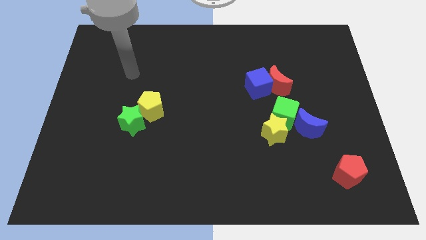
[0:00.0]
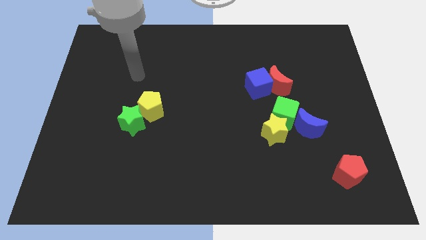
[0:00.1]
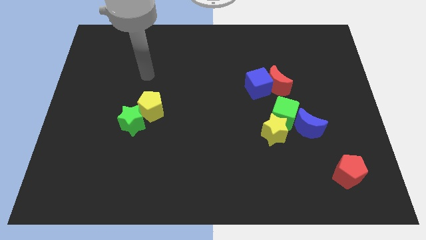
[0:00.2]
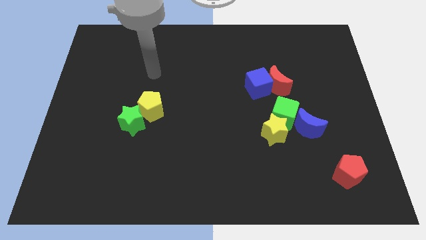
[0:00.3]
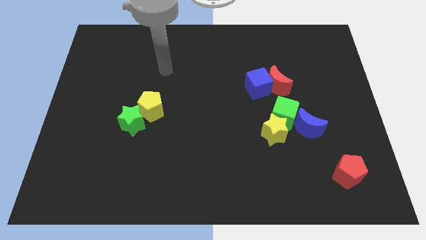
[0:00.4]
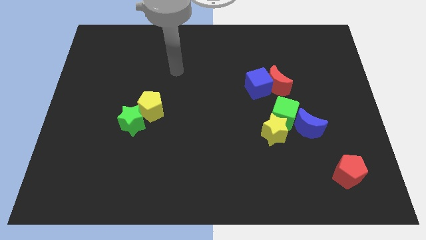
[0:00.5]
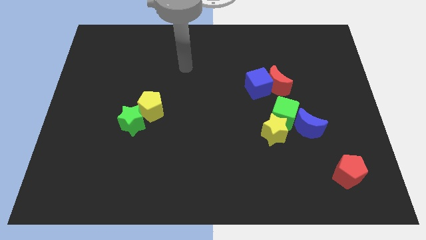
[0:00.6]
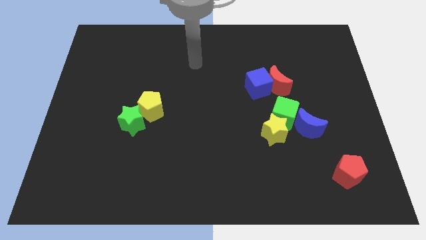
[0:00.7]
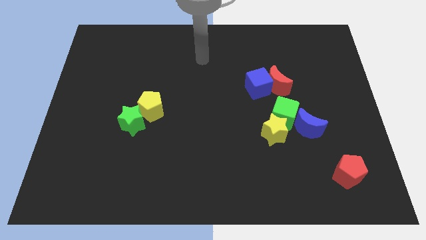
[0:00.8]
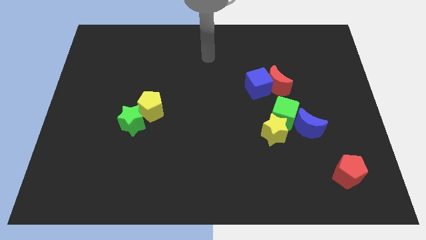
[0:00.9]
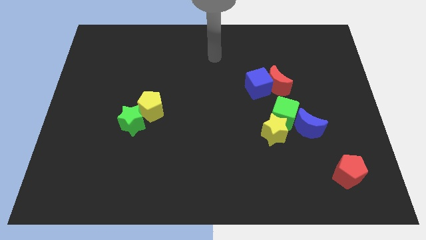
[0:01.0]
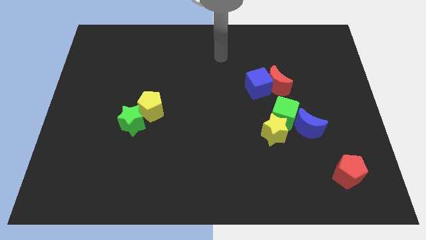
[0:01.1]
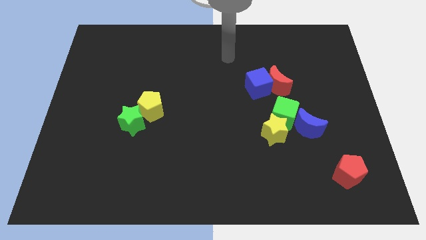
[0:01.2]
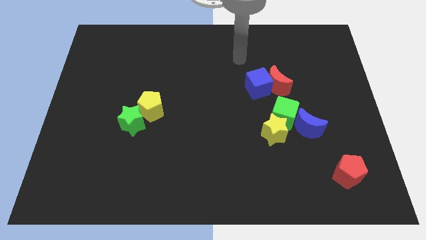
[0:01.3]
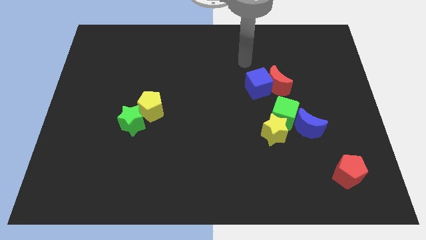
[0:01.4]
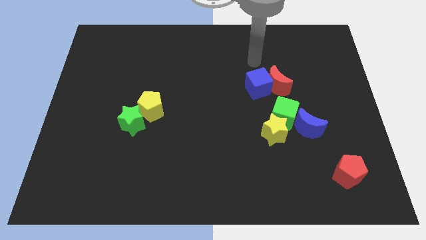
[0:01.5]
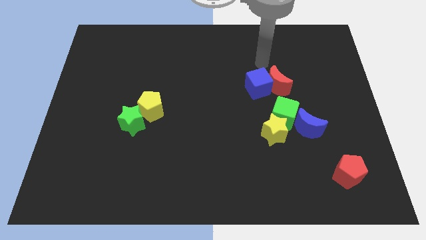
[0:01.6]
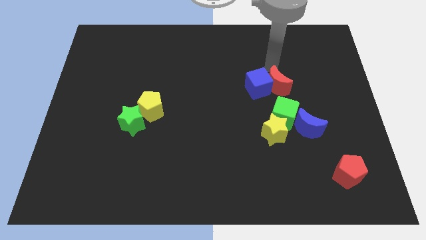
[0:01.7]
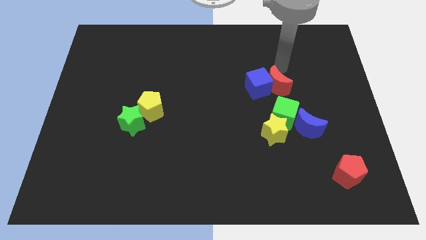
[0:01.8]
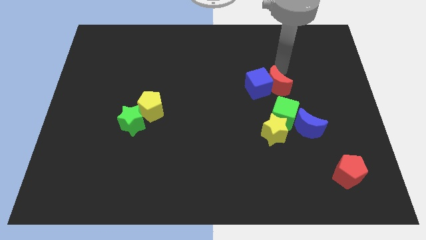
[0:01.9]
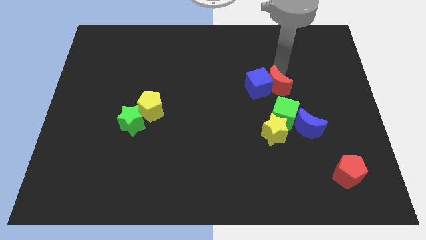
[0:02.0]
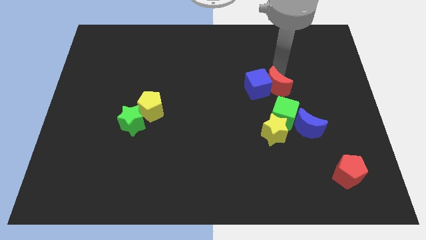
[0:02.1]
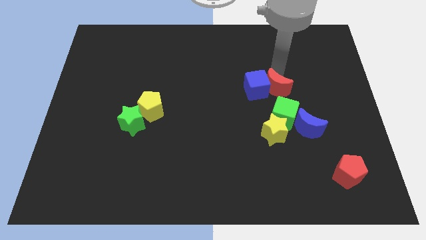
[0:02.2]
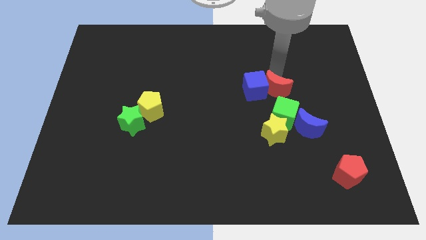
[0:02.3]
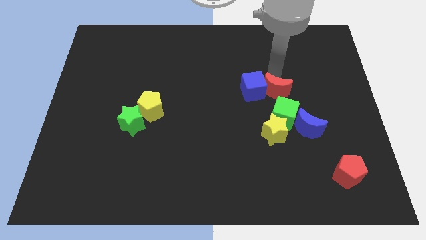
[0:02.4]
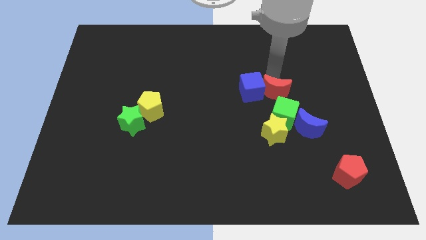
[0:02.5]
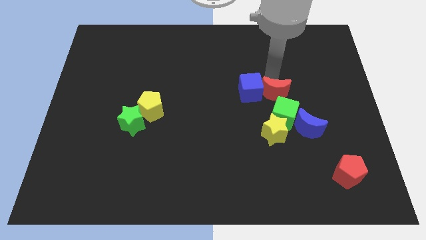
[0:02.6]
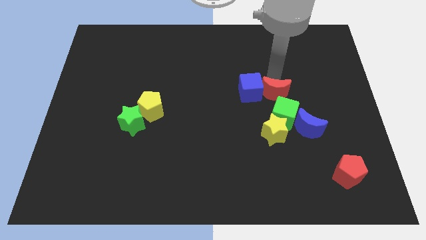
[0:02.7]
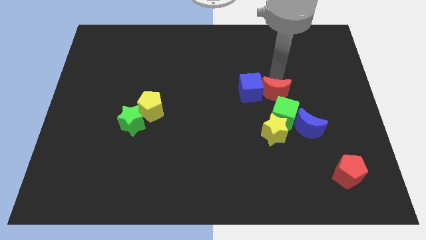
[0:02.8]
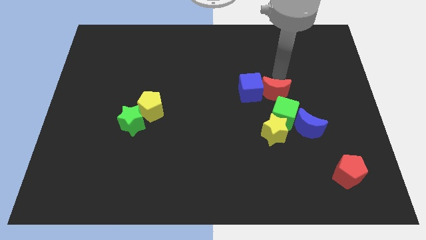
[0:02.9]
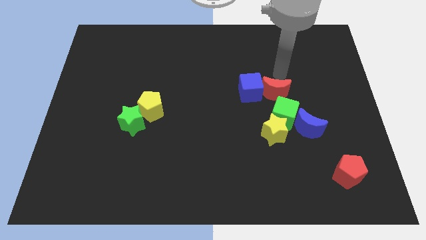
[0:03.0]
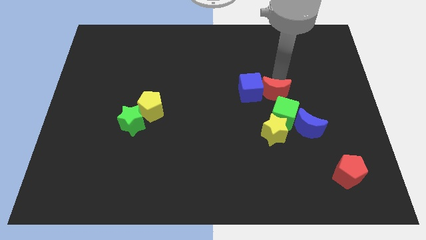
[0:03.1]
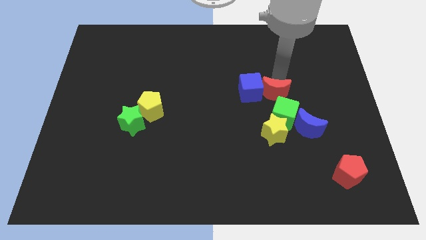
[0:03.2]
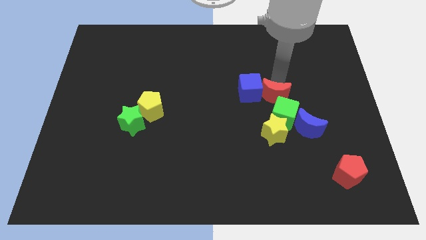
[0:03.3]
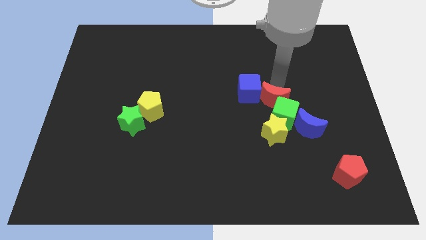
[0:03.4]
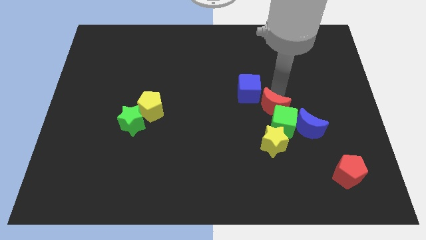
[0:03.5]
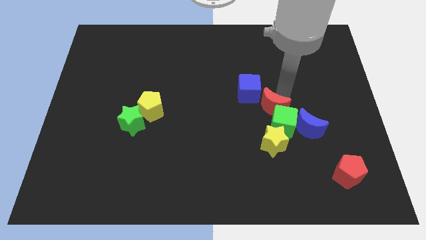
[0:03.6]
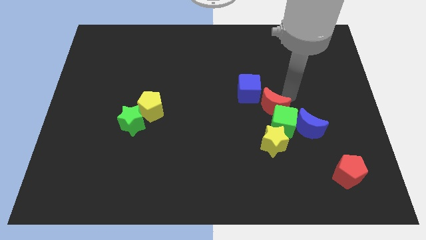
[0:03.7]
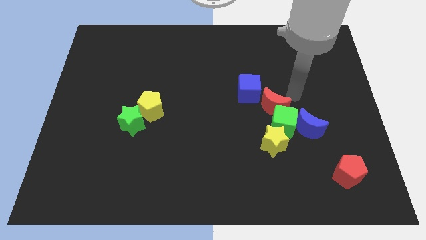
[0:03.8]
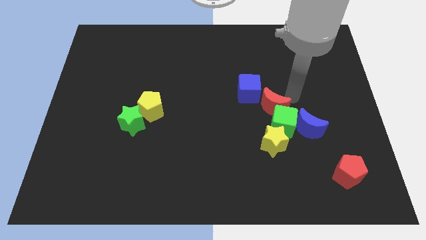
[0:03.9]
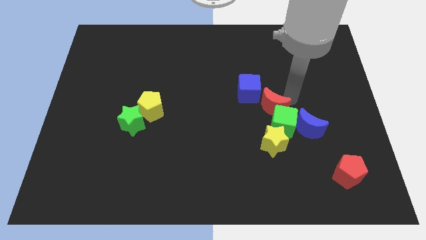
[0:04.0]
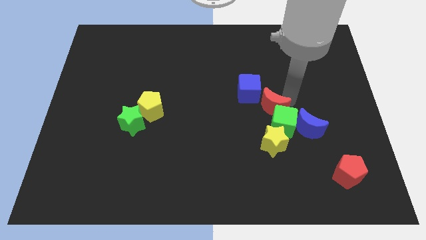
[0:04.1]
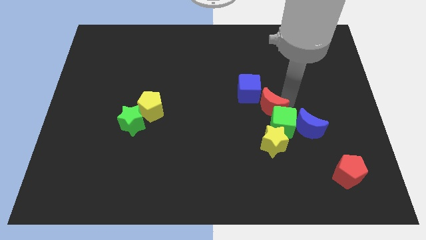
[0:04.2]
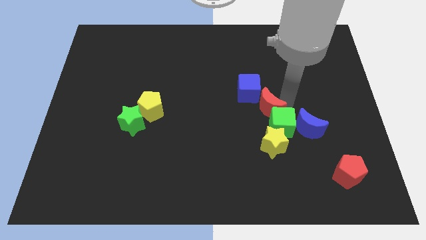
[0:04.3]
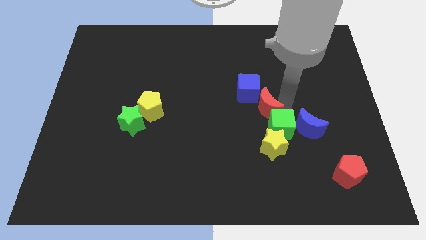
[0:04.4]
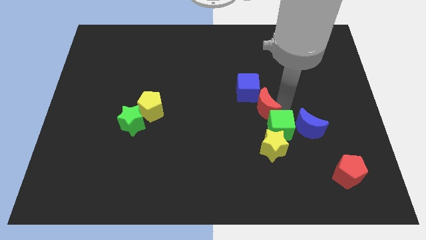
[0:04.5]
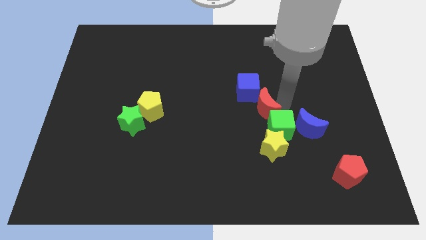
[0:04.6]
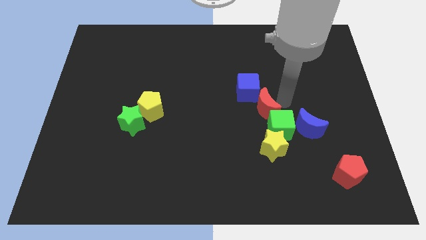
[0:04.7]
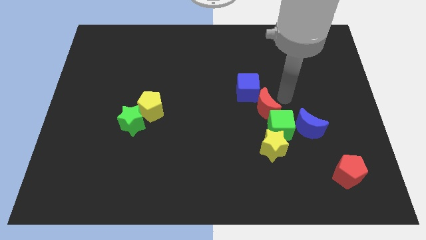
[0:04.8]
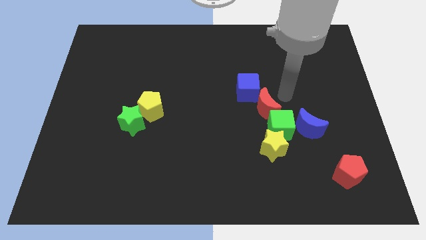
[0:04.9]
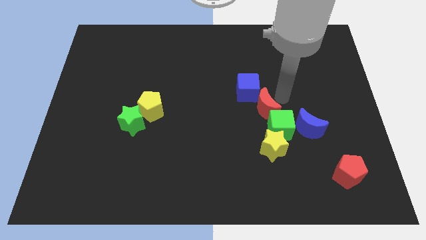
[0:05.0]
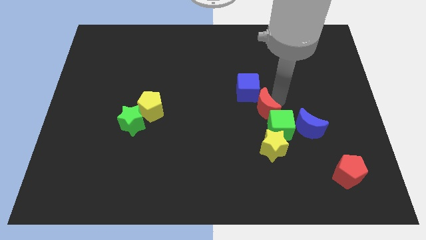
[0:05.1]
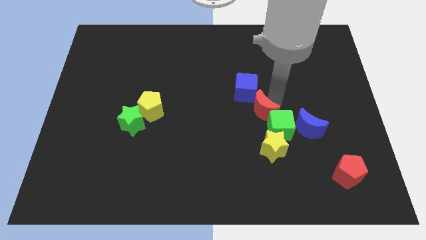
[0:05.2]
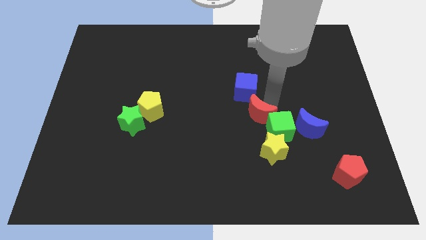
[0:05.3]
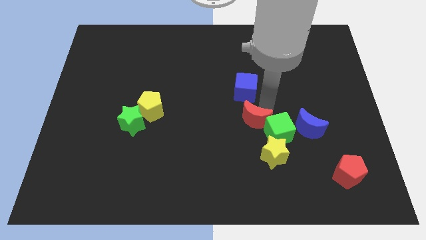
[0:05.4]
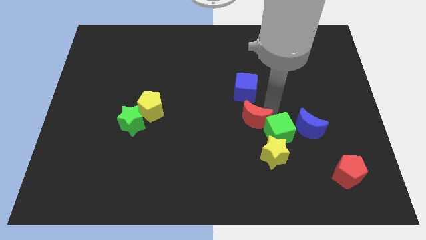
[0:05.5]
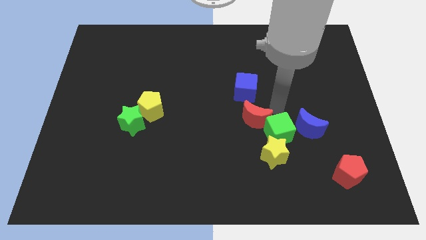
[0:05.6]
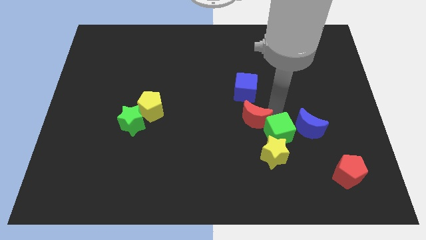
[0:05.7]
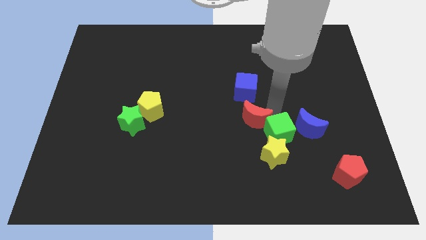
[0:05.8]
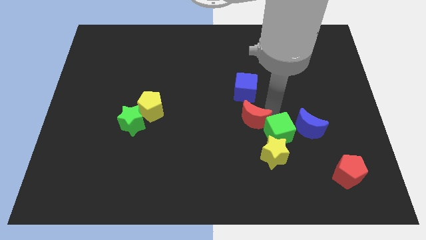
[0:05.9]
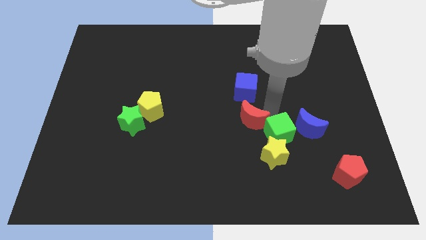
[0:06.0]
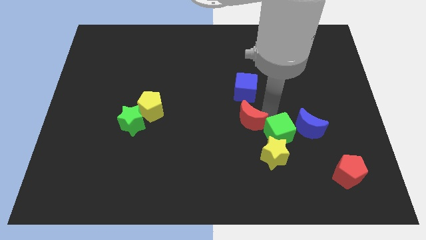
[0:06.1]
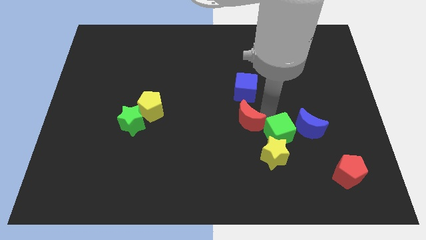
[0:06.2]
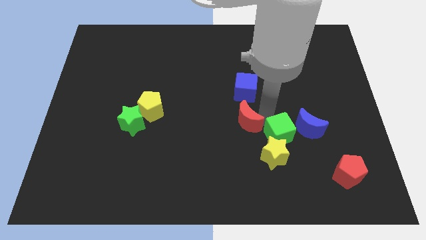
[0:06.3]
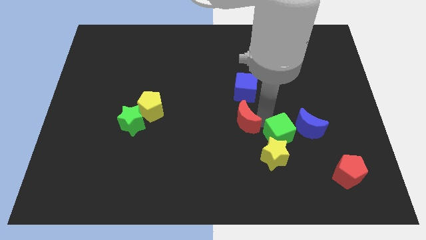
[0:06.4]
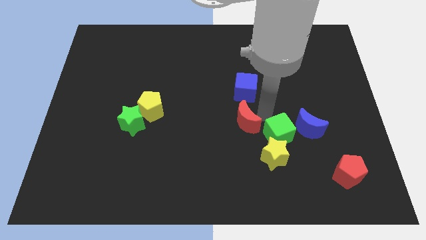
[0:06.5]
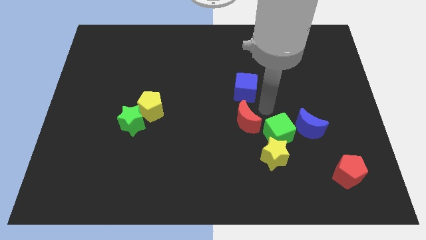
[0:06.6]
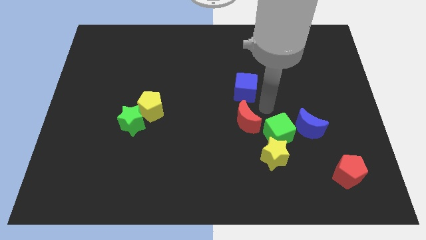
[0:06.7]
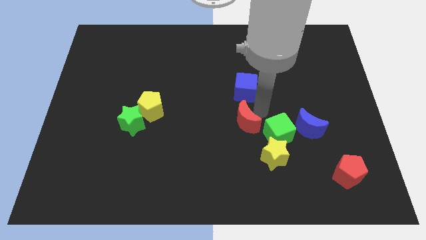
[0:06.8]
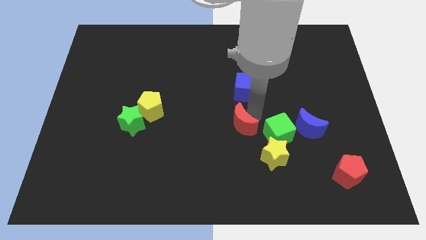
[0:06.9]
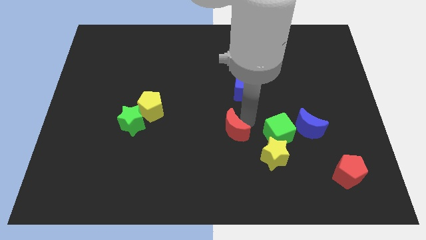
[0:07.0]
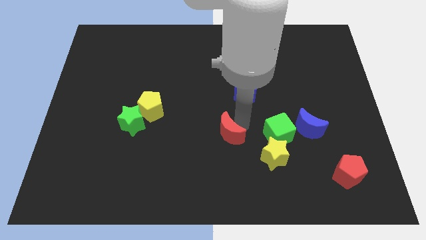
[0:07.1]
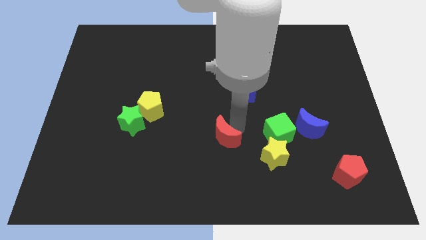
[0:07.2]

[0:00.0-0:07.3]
push the red moon downwards and to the left diagonally

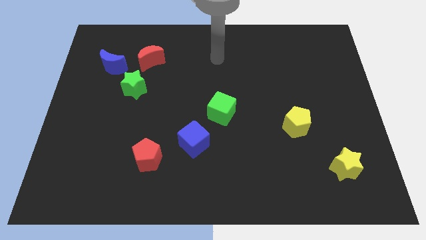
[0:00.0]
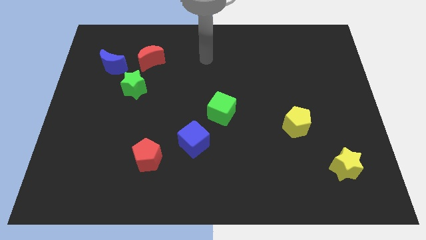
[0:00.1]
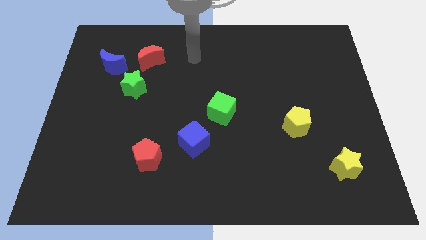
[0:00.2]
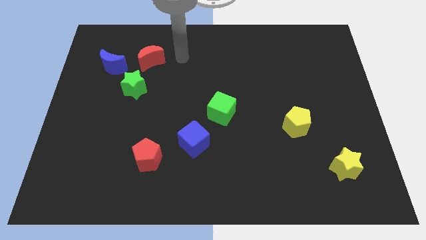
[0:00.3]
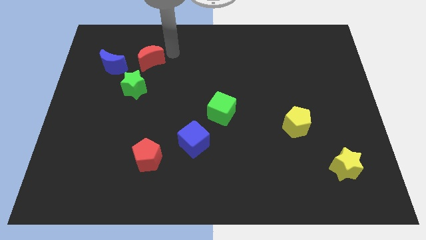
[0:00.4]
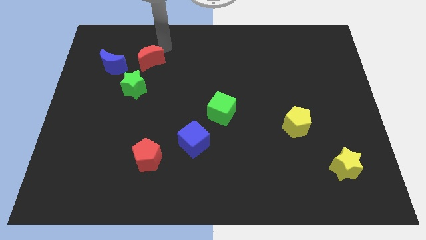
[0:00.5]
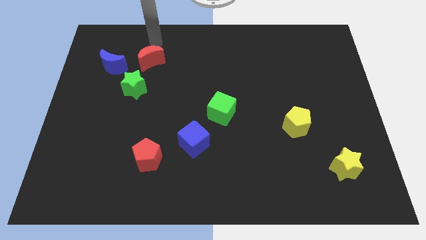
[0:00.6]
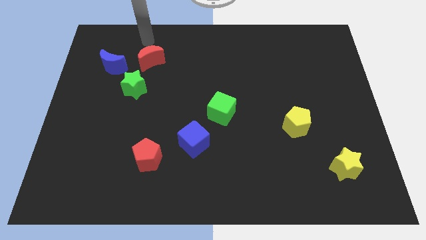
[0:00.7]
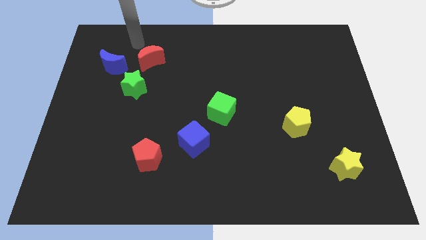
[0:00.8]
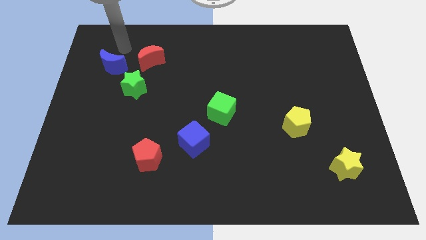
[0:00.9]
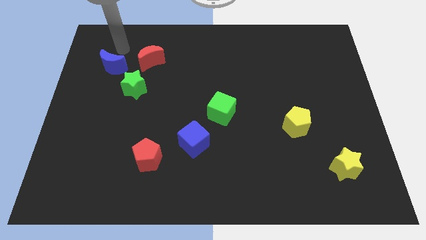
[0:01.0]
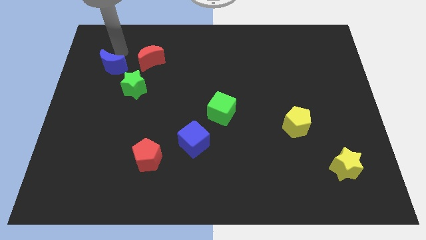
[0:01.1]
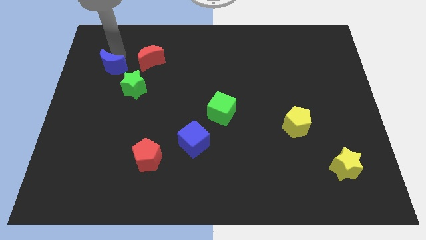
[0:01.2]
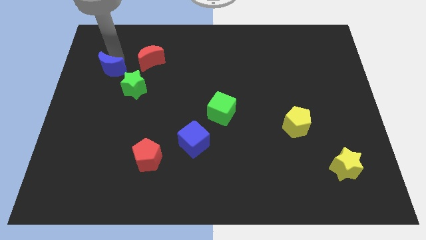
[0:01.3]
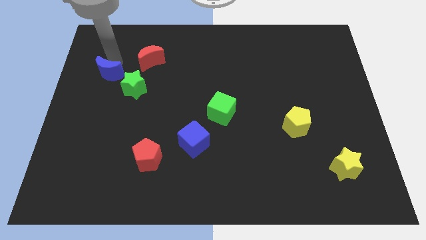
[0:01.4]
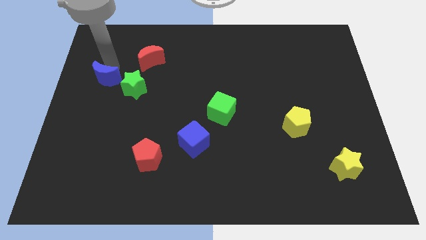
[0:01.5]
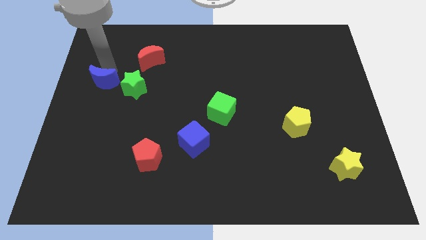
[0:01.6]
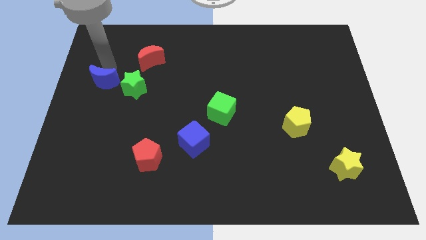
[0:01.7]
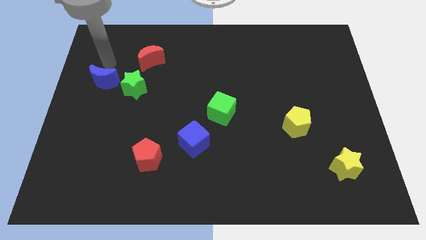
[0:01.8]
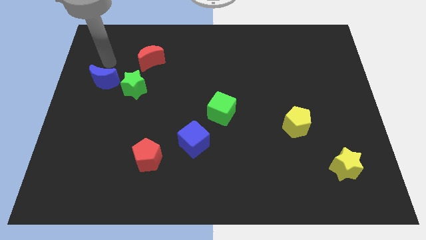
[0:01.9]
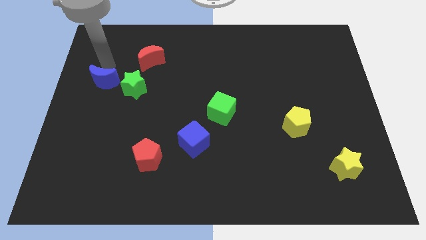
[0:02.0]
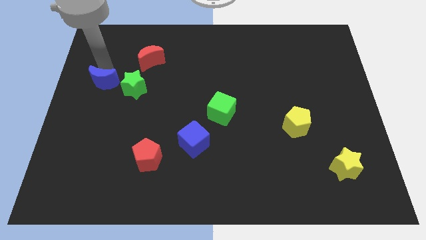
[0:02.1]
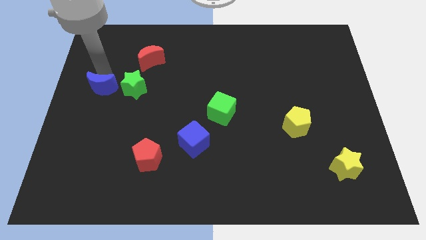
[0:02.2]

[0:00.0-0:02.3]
slightly slide the blue moon downwards
